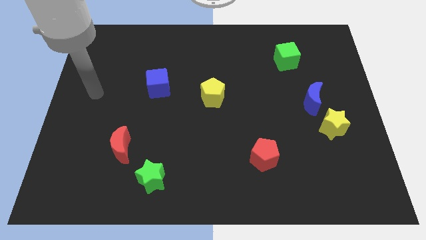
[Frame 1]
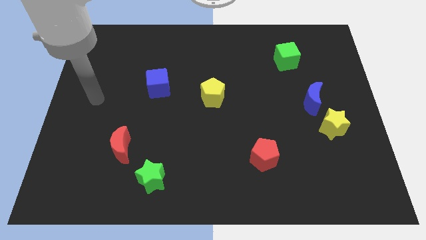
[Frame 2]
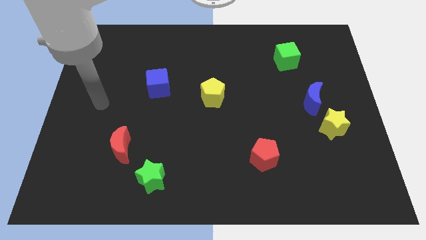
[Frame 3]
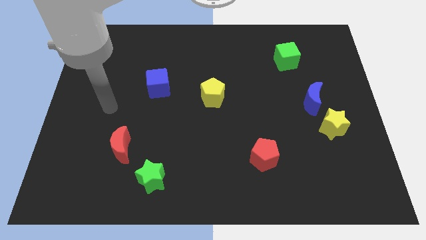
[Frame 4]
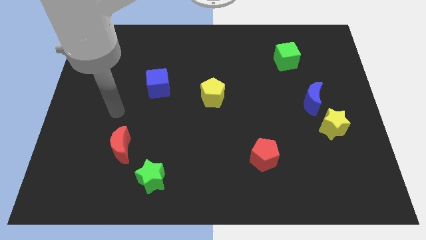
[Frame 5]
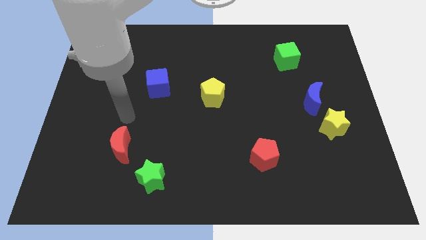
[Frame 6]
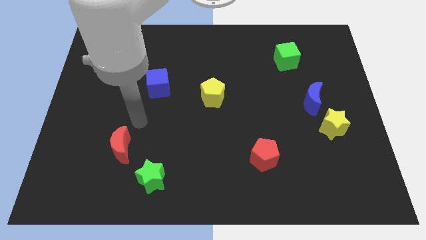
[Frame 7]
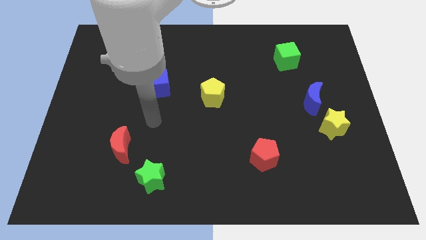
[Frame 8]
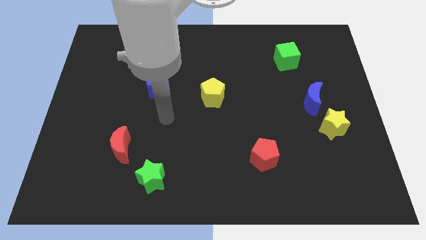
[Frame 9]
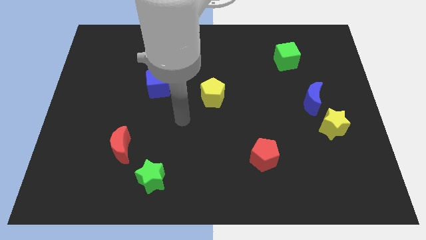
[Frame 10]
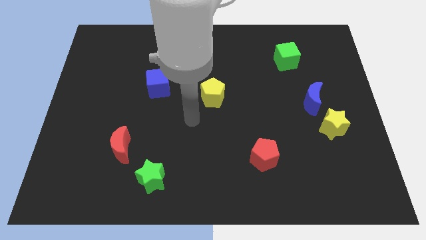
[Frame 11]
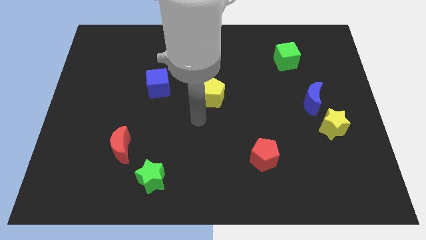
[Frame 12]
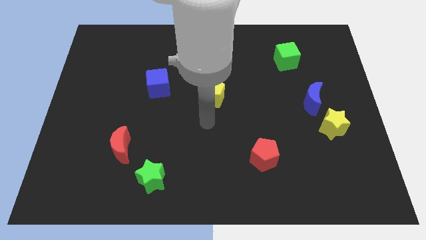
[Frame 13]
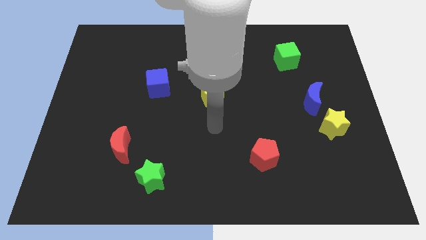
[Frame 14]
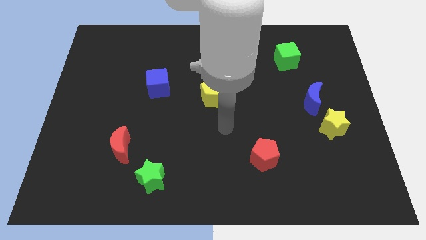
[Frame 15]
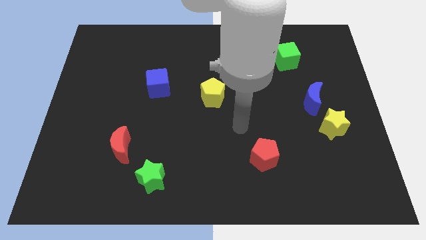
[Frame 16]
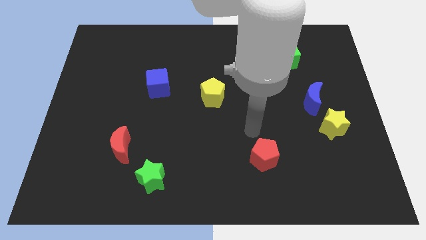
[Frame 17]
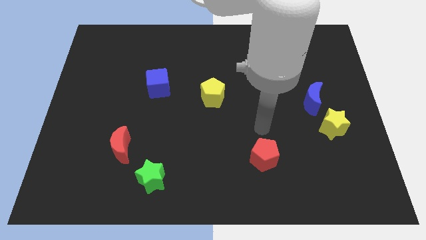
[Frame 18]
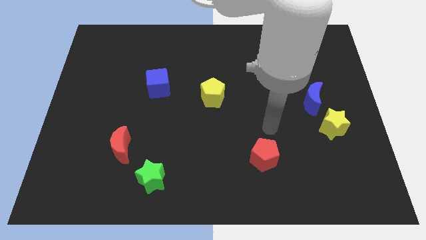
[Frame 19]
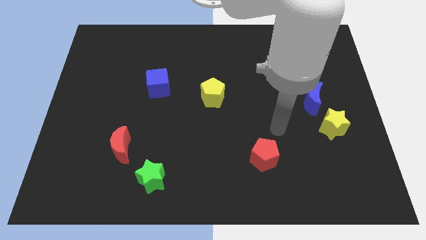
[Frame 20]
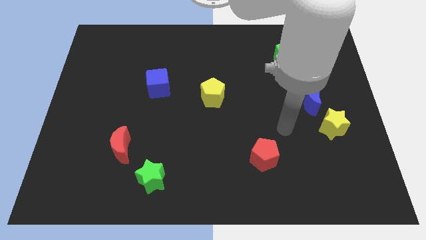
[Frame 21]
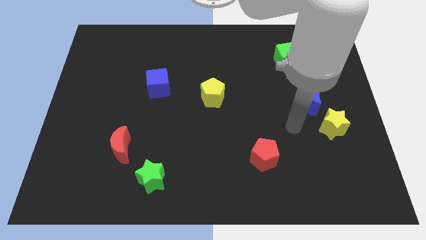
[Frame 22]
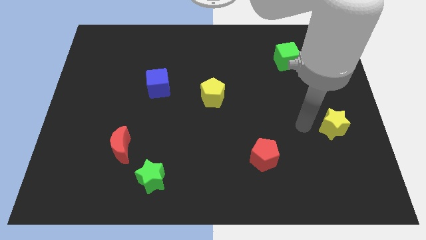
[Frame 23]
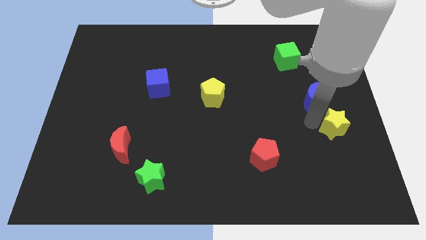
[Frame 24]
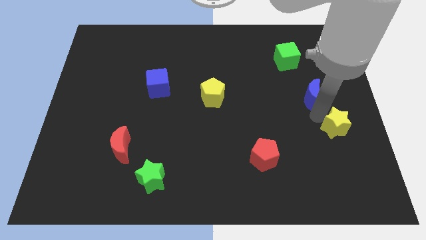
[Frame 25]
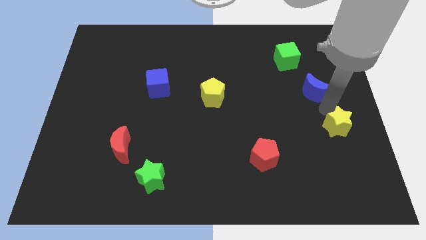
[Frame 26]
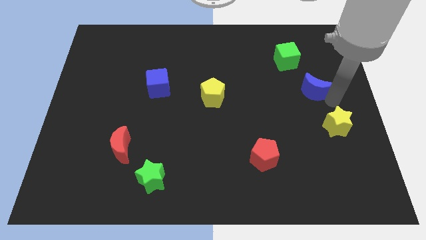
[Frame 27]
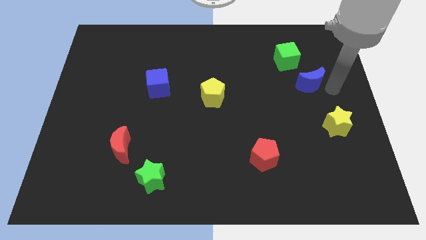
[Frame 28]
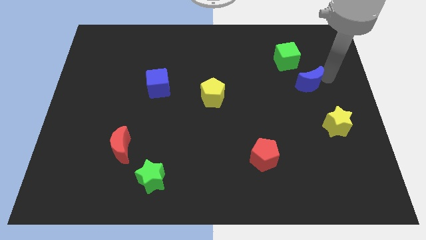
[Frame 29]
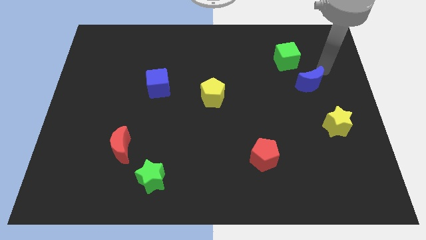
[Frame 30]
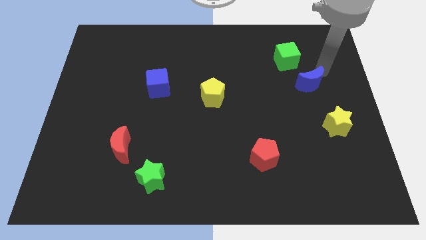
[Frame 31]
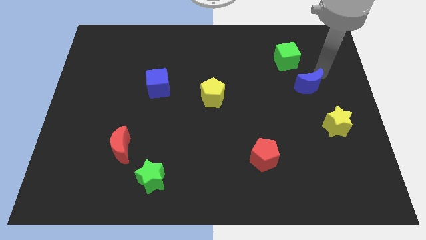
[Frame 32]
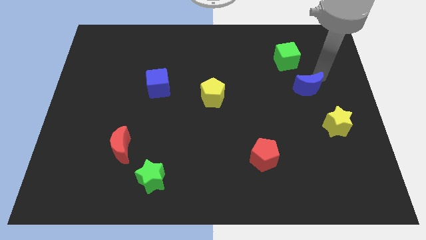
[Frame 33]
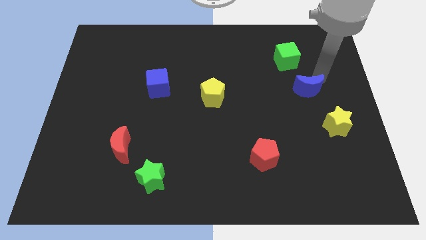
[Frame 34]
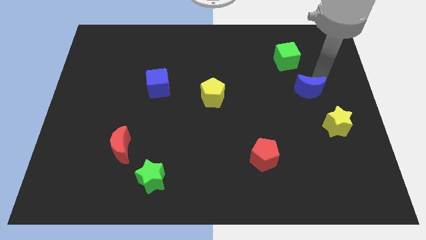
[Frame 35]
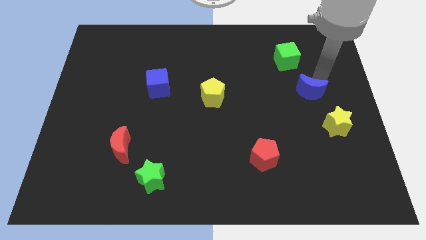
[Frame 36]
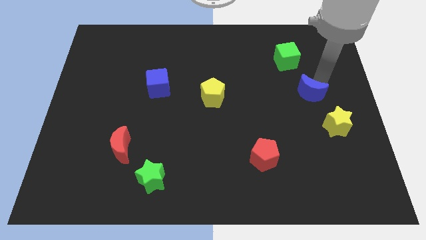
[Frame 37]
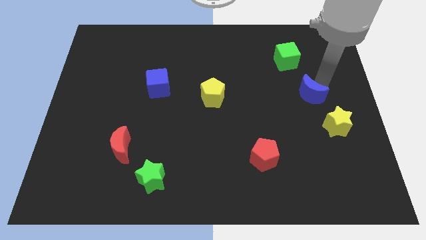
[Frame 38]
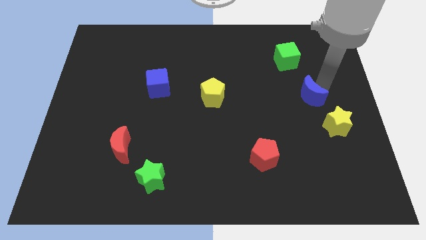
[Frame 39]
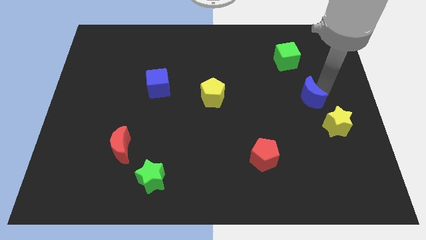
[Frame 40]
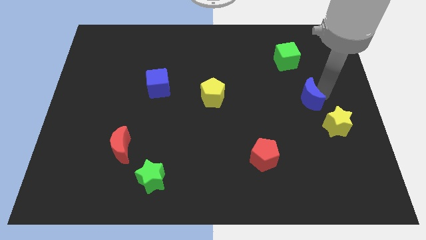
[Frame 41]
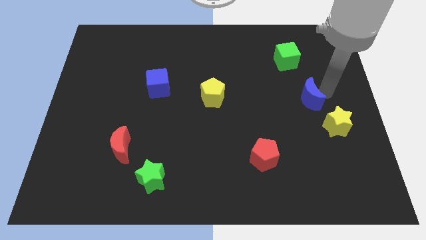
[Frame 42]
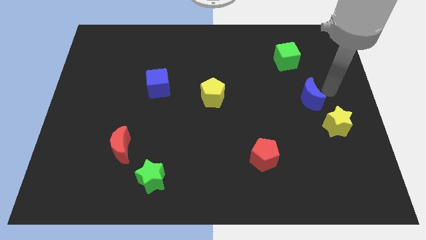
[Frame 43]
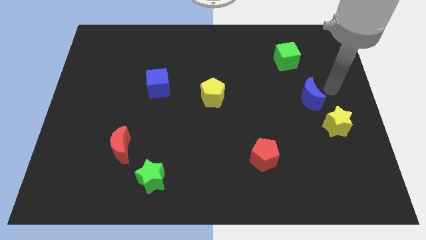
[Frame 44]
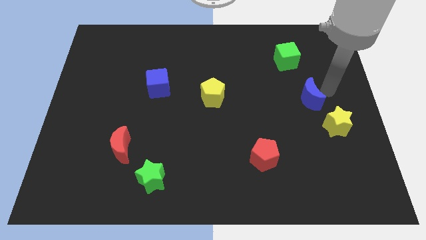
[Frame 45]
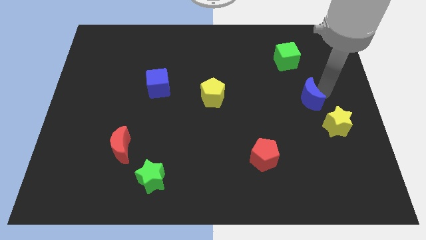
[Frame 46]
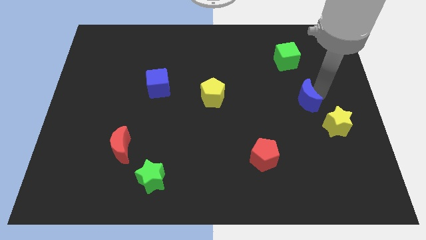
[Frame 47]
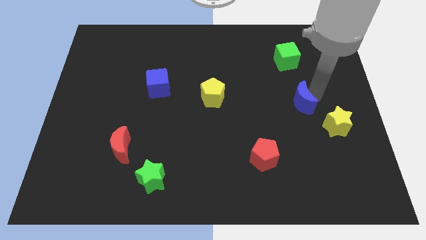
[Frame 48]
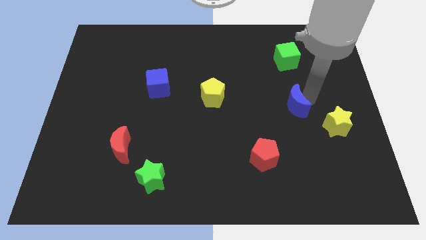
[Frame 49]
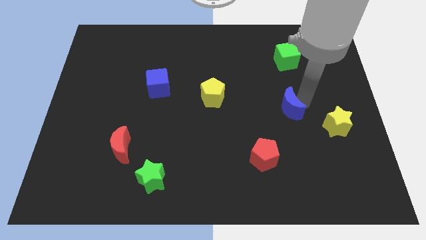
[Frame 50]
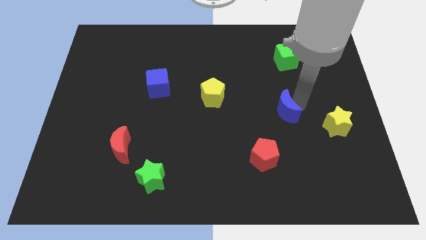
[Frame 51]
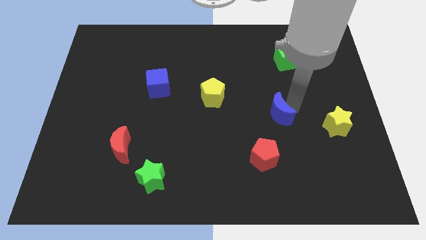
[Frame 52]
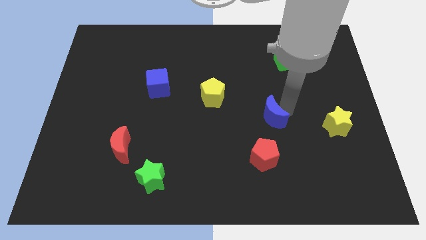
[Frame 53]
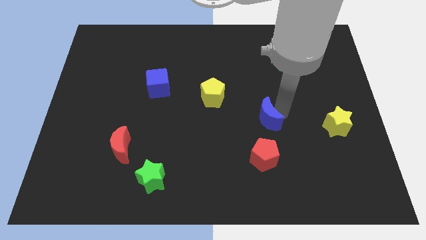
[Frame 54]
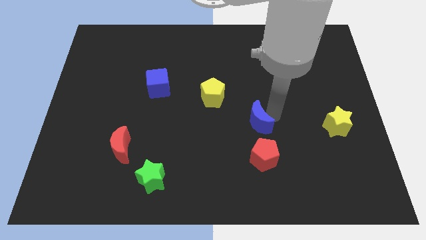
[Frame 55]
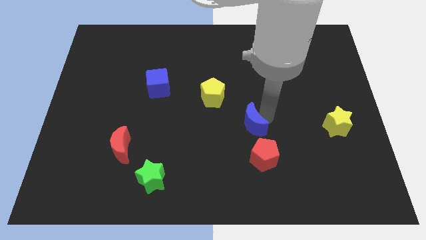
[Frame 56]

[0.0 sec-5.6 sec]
move the blue moon to the top left of the red pentagon
